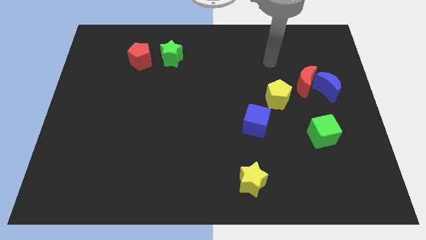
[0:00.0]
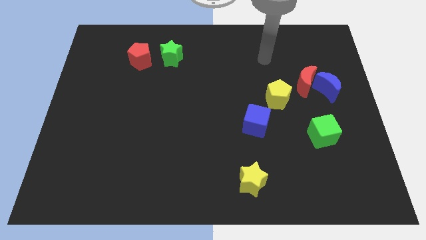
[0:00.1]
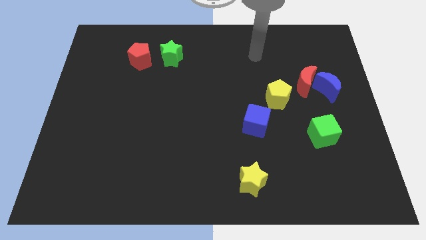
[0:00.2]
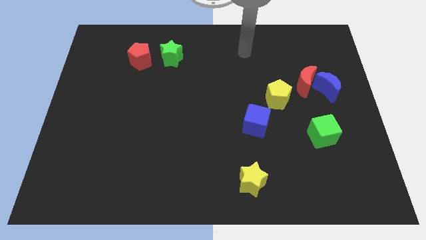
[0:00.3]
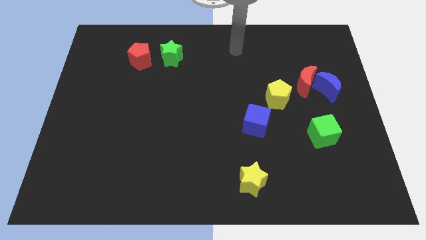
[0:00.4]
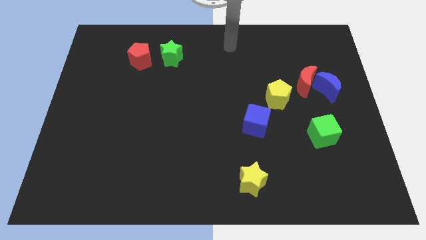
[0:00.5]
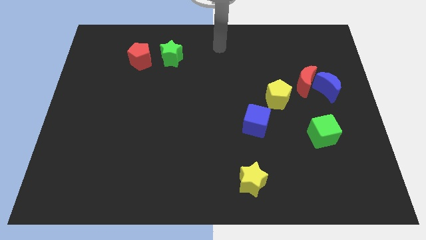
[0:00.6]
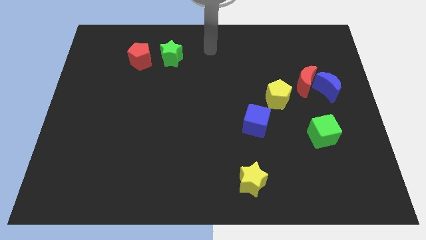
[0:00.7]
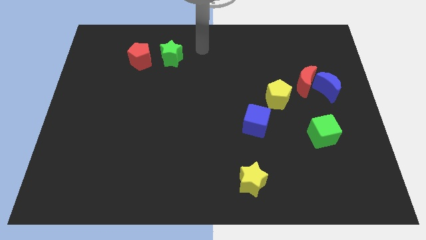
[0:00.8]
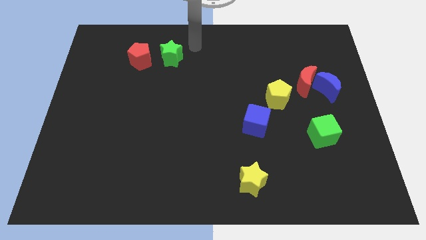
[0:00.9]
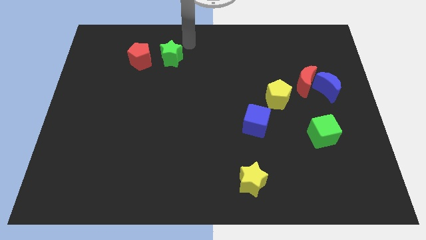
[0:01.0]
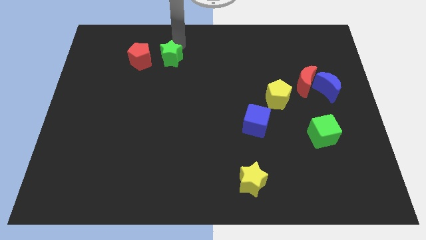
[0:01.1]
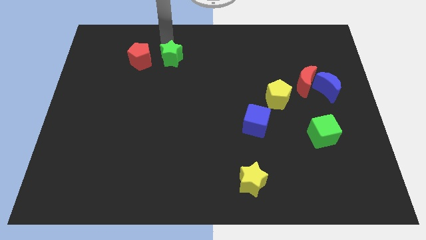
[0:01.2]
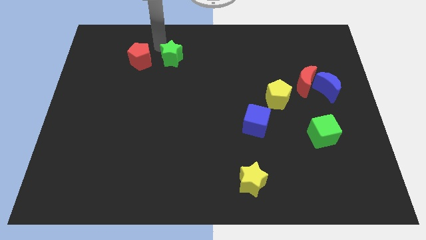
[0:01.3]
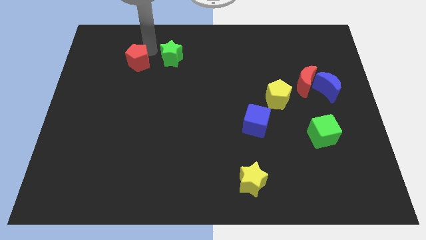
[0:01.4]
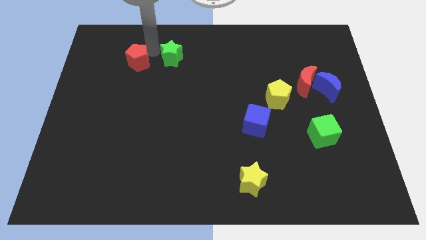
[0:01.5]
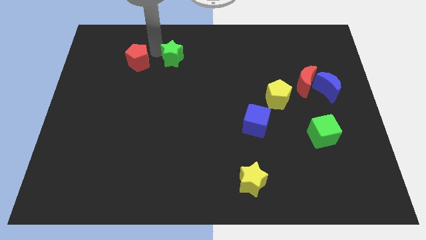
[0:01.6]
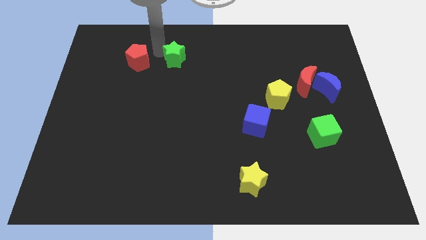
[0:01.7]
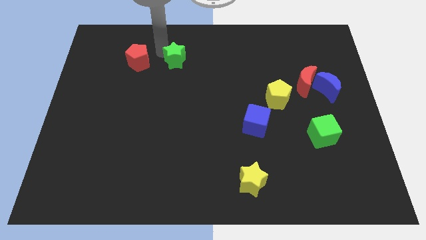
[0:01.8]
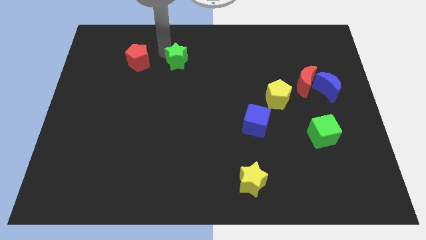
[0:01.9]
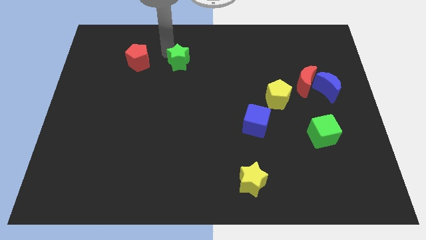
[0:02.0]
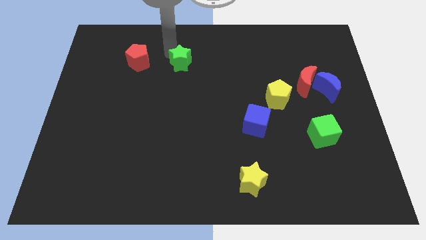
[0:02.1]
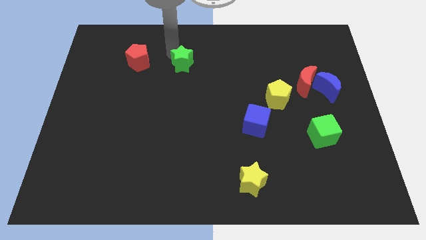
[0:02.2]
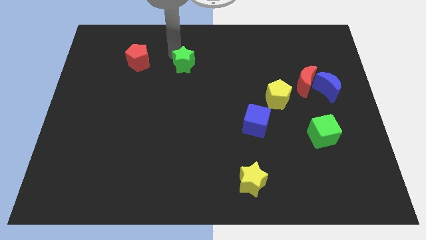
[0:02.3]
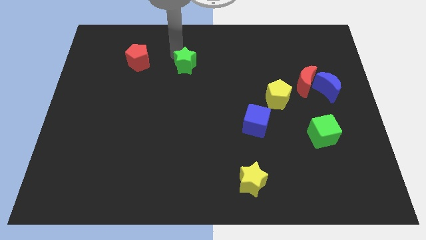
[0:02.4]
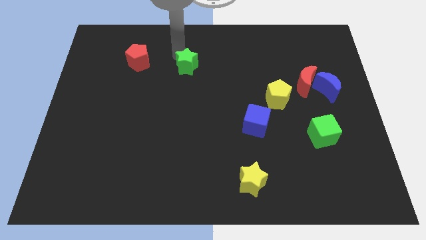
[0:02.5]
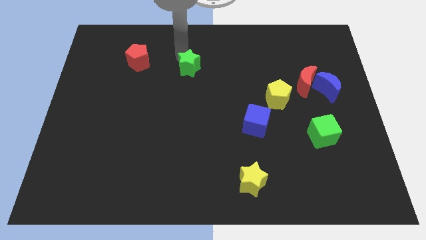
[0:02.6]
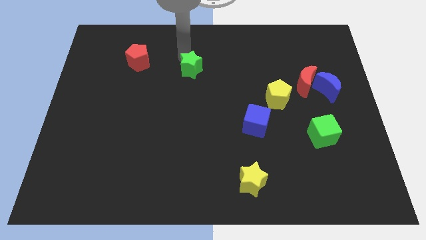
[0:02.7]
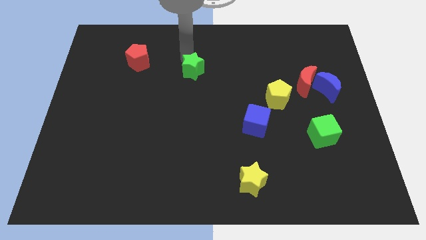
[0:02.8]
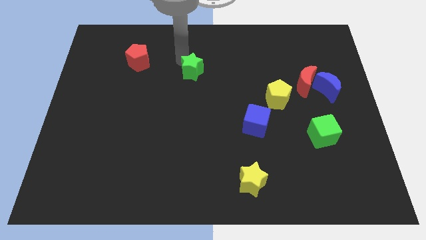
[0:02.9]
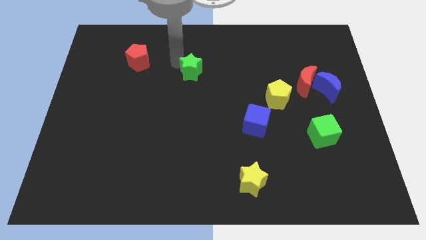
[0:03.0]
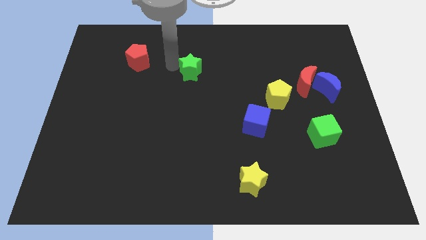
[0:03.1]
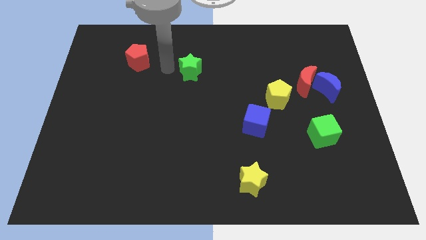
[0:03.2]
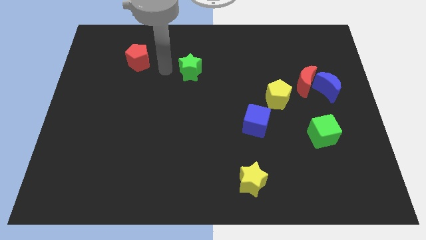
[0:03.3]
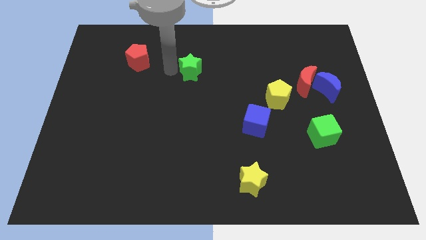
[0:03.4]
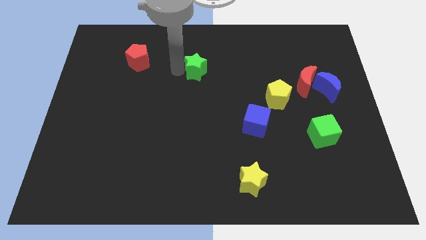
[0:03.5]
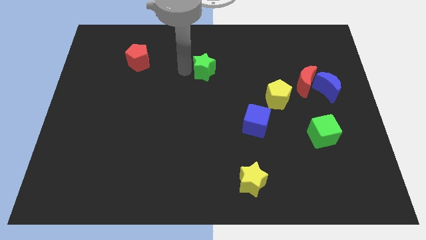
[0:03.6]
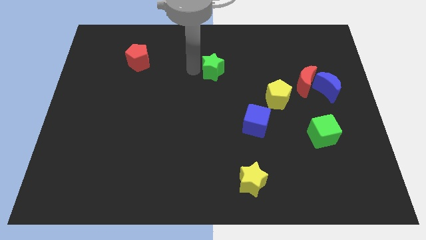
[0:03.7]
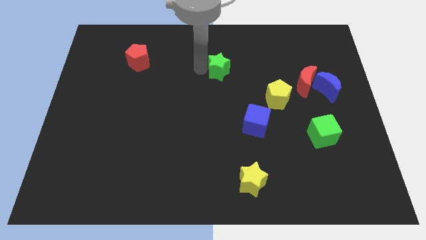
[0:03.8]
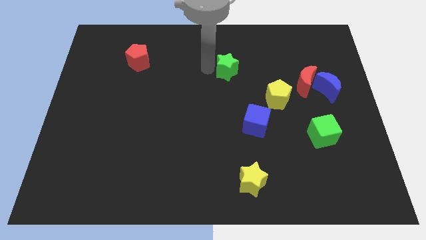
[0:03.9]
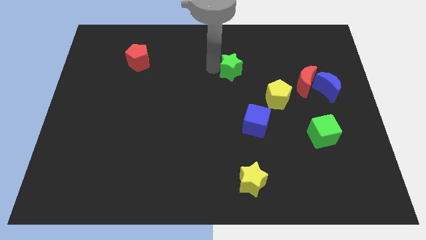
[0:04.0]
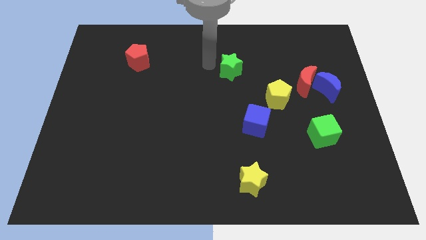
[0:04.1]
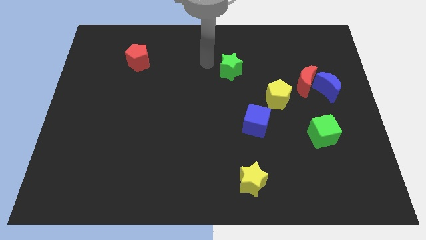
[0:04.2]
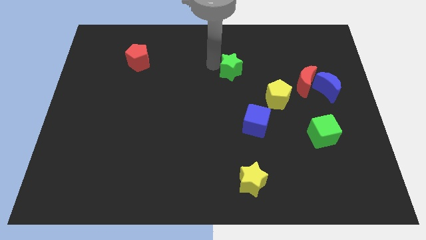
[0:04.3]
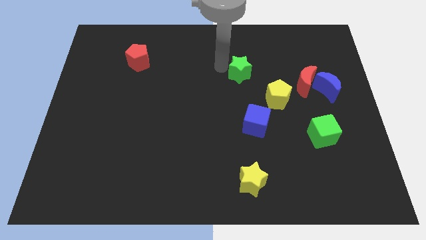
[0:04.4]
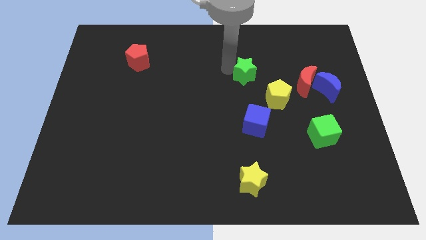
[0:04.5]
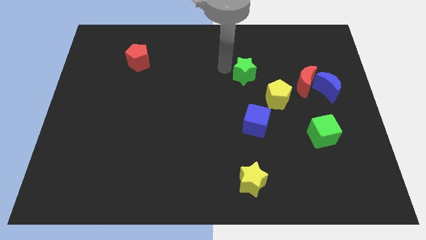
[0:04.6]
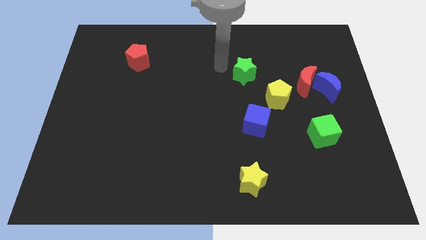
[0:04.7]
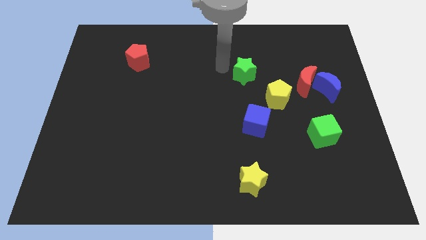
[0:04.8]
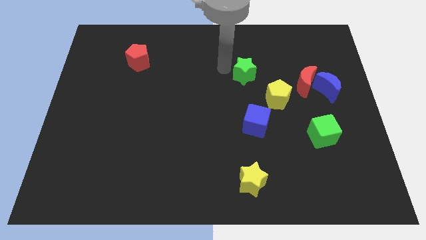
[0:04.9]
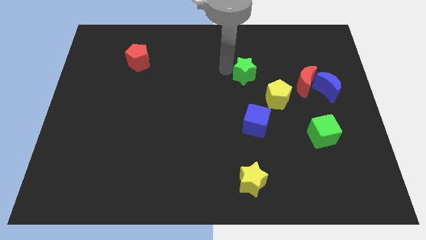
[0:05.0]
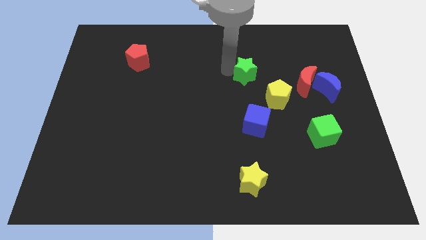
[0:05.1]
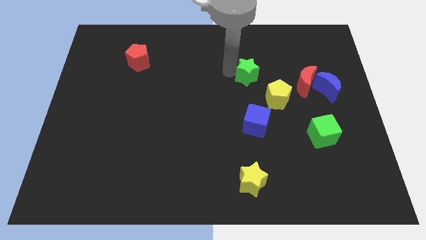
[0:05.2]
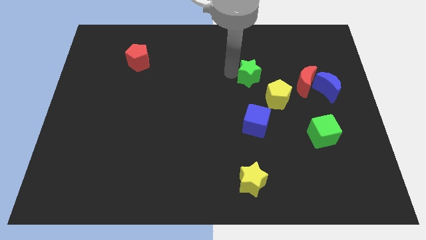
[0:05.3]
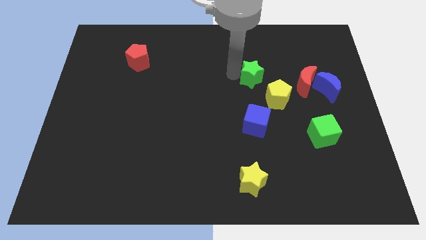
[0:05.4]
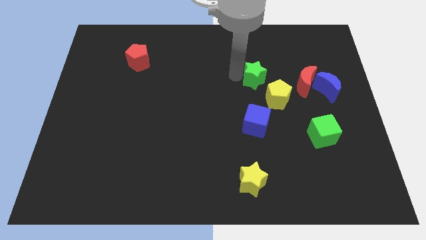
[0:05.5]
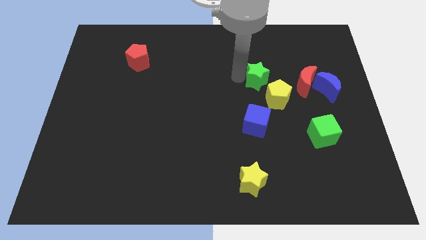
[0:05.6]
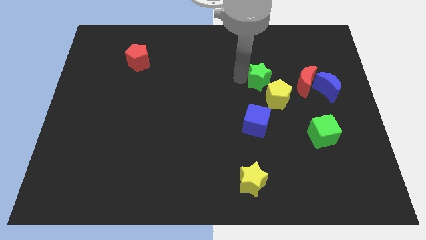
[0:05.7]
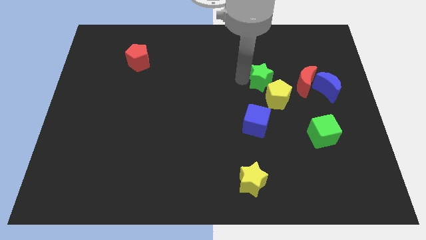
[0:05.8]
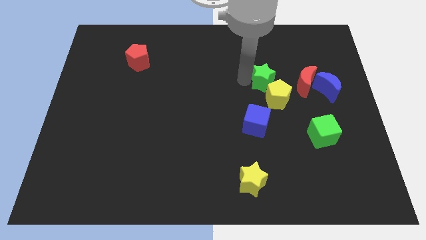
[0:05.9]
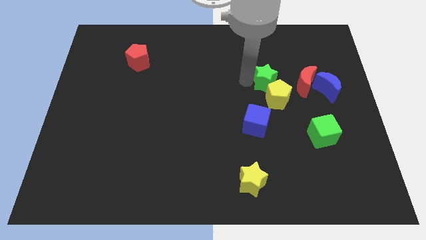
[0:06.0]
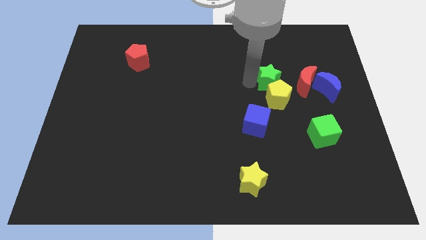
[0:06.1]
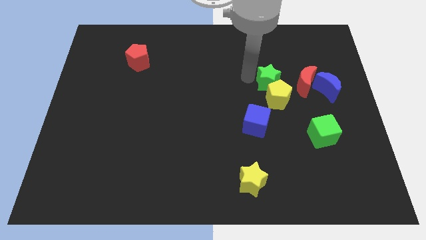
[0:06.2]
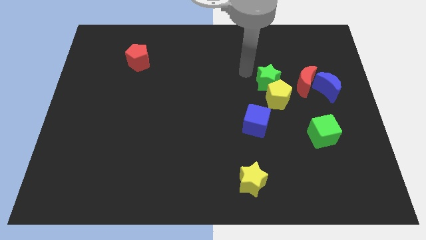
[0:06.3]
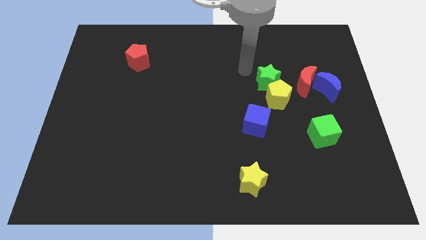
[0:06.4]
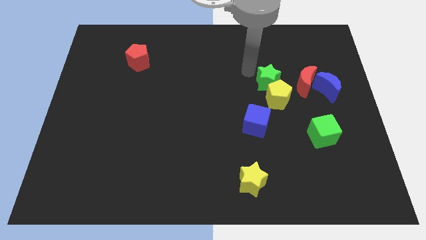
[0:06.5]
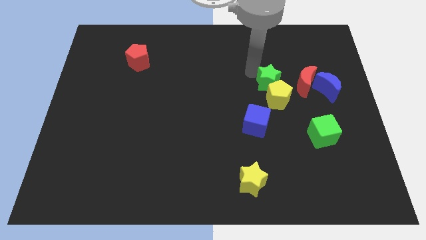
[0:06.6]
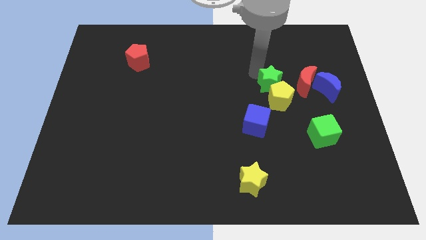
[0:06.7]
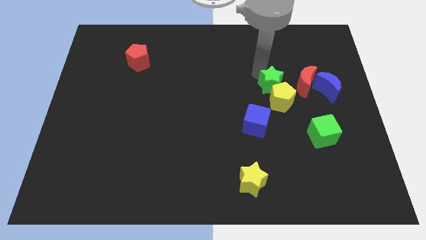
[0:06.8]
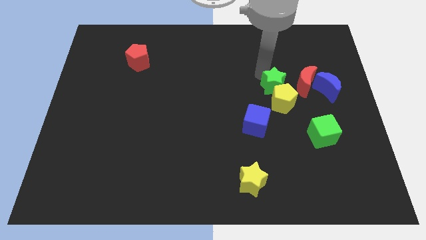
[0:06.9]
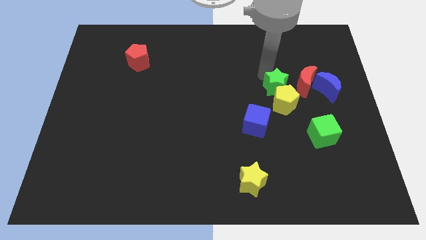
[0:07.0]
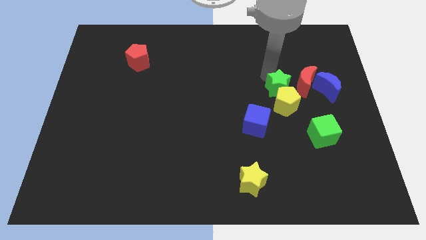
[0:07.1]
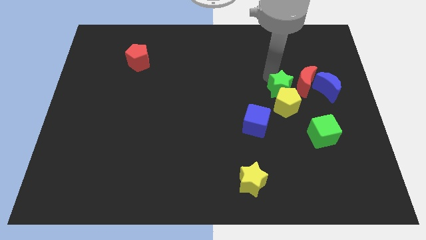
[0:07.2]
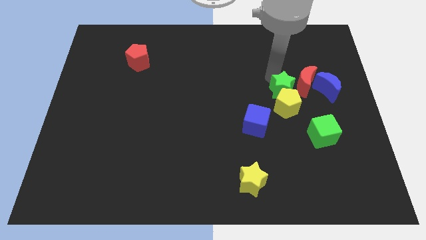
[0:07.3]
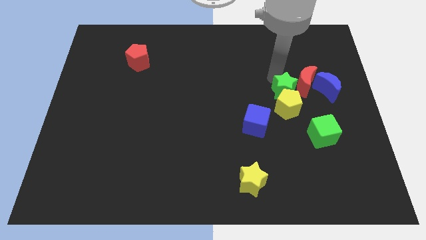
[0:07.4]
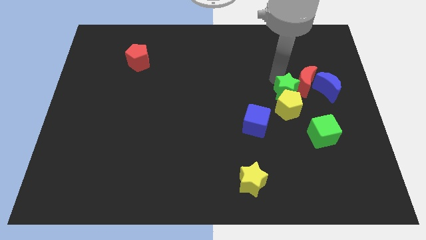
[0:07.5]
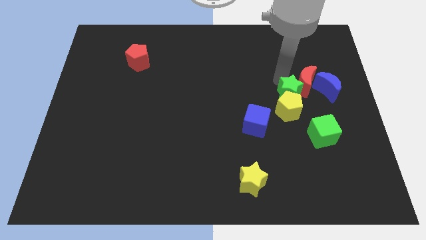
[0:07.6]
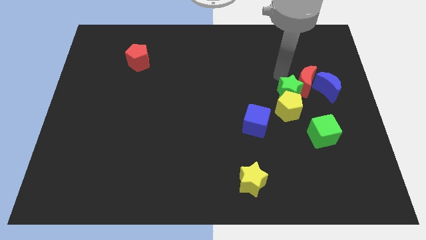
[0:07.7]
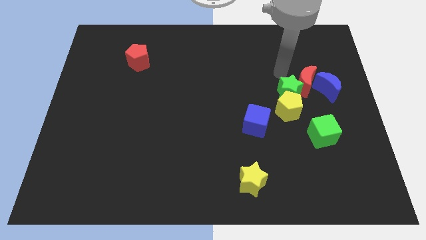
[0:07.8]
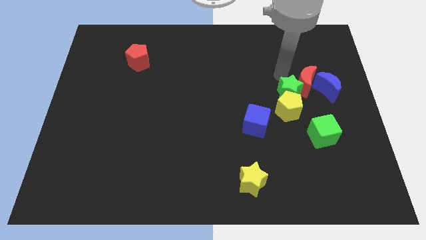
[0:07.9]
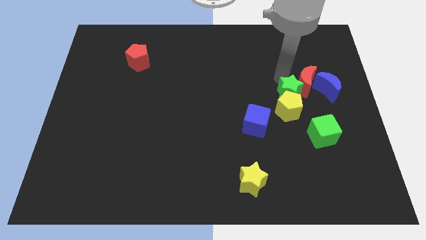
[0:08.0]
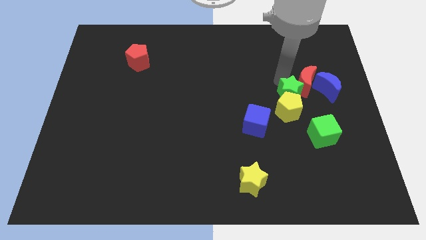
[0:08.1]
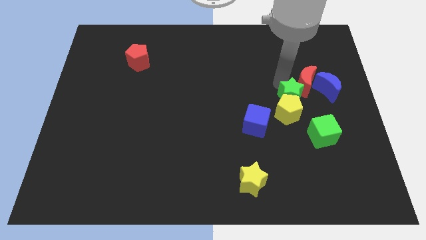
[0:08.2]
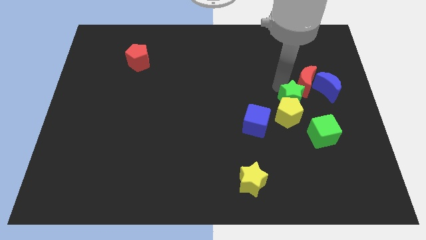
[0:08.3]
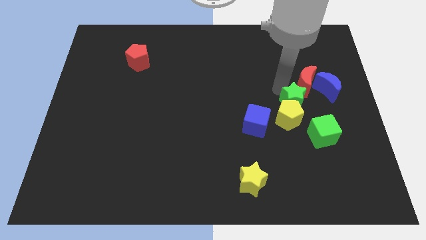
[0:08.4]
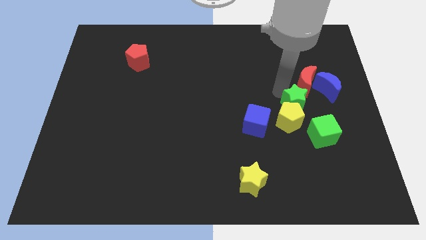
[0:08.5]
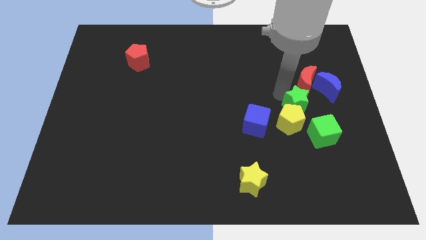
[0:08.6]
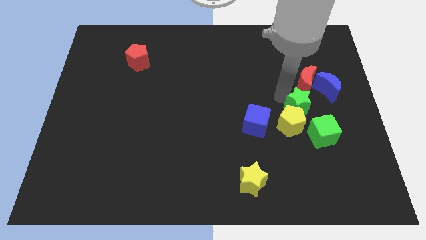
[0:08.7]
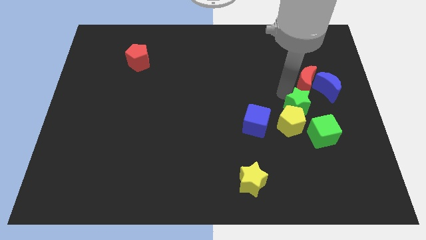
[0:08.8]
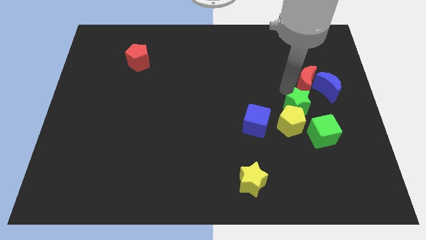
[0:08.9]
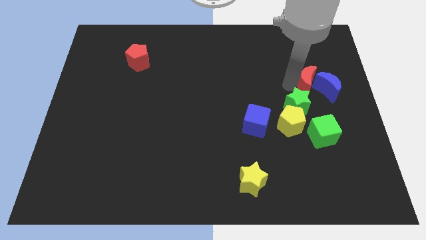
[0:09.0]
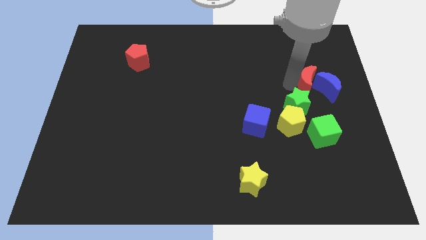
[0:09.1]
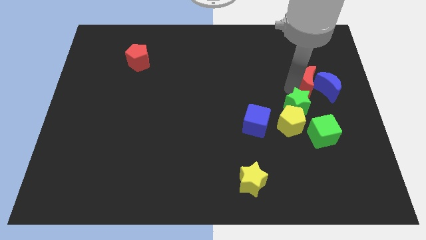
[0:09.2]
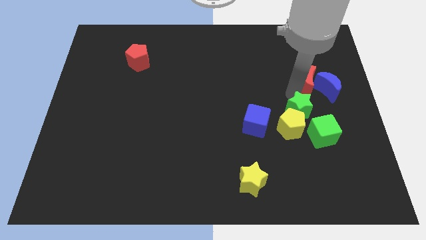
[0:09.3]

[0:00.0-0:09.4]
push the green star just right of the blue cube
